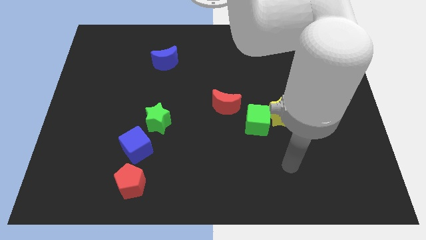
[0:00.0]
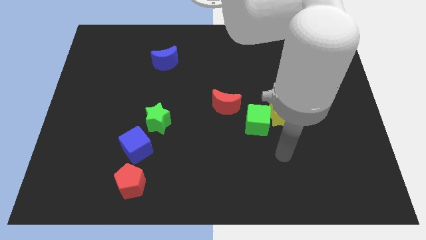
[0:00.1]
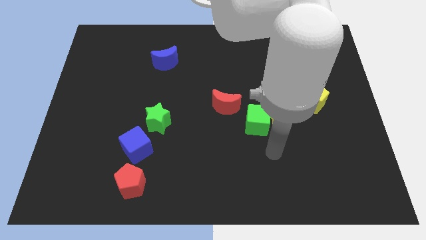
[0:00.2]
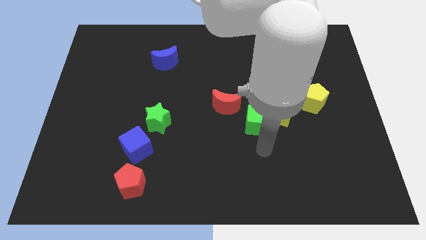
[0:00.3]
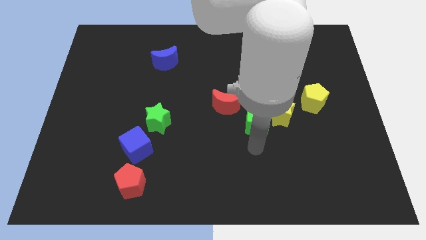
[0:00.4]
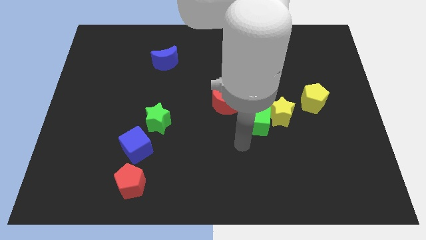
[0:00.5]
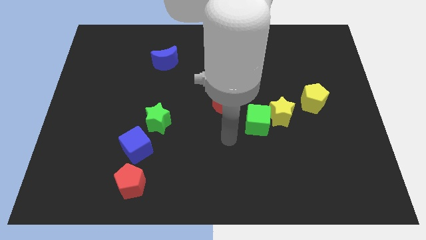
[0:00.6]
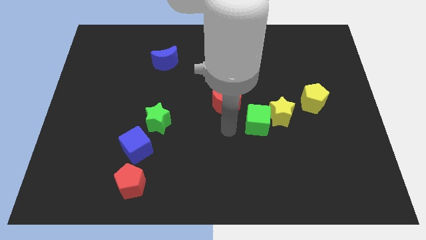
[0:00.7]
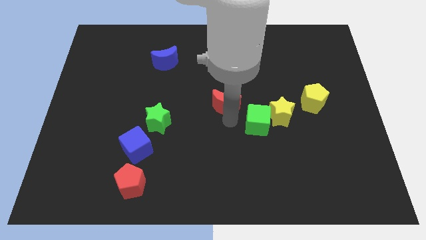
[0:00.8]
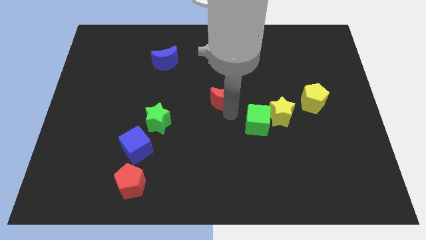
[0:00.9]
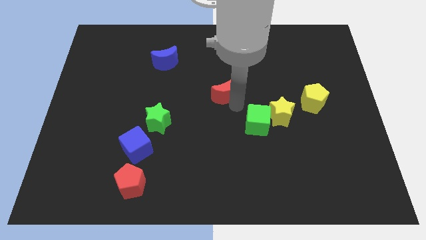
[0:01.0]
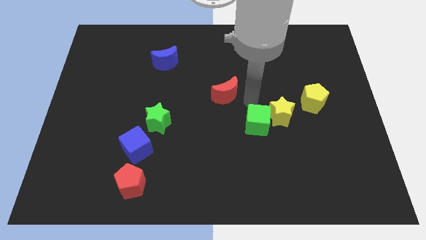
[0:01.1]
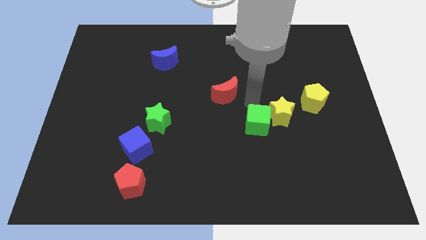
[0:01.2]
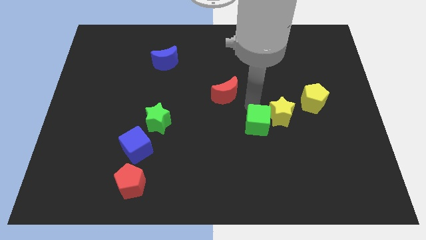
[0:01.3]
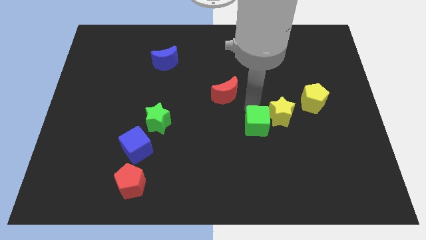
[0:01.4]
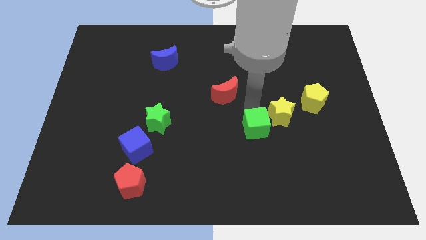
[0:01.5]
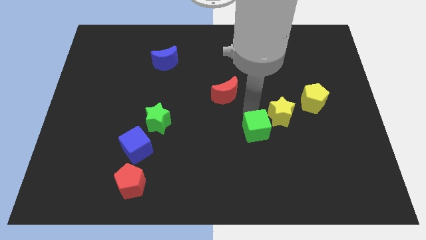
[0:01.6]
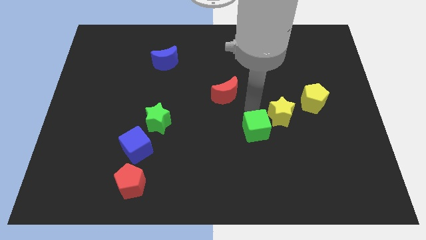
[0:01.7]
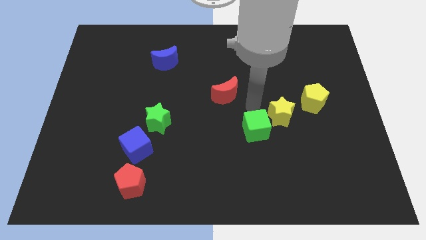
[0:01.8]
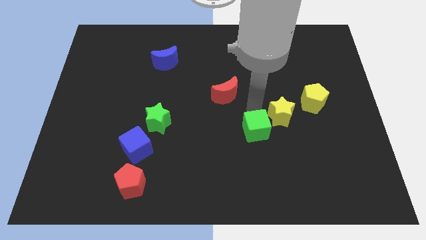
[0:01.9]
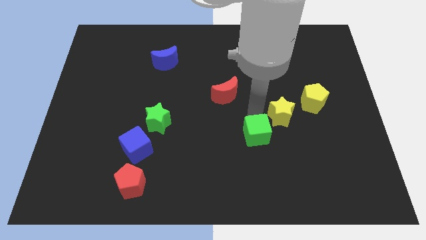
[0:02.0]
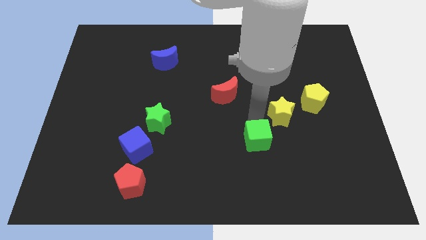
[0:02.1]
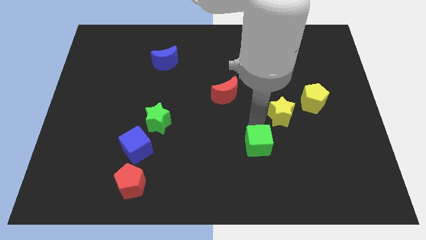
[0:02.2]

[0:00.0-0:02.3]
separate the green cube from the yellow star and red moon

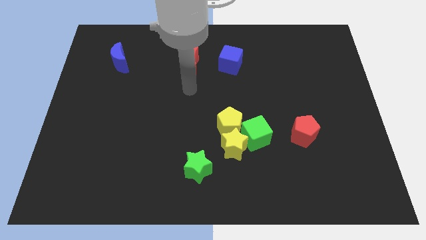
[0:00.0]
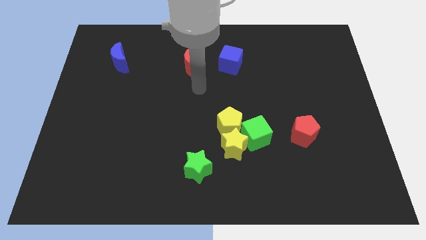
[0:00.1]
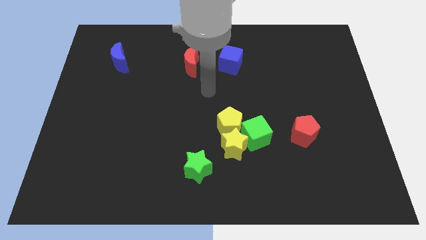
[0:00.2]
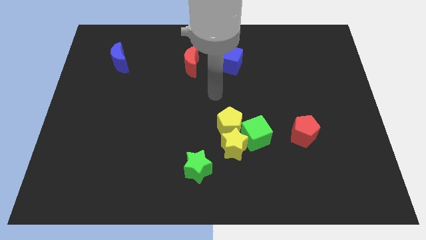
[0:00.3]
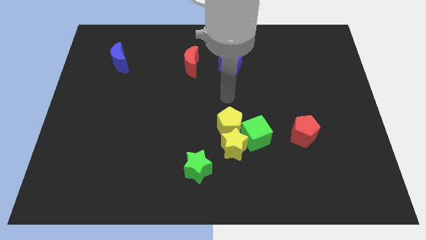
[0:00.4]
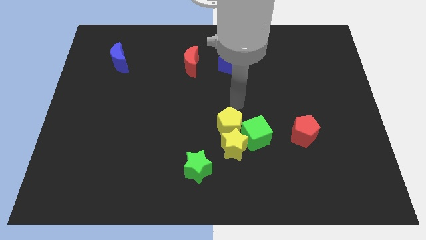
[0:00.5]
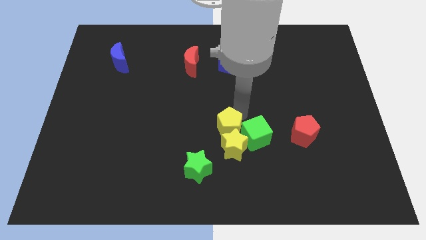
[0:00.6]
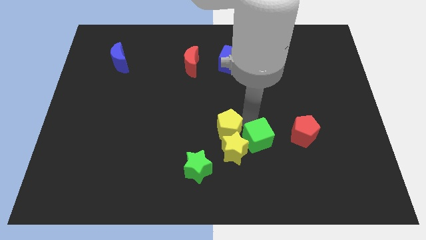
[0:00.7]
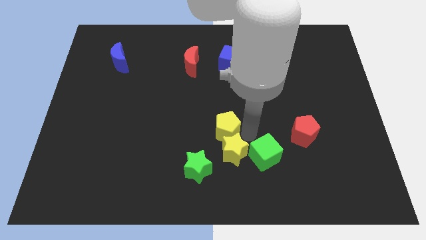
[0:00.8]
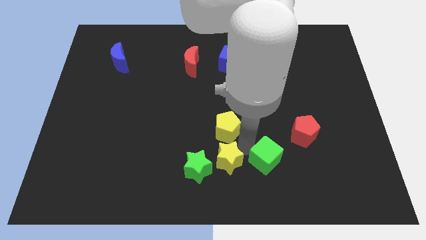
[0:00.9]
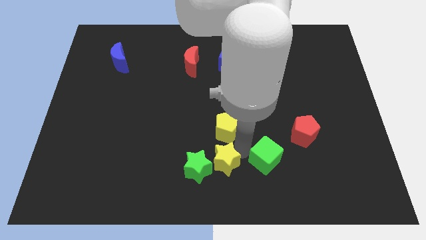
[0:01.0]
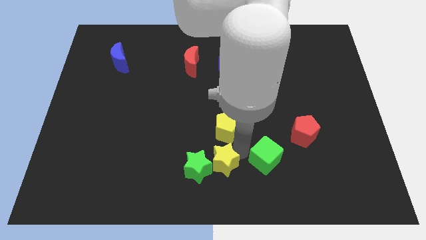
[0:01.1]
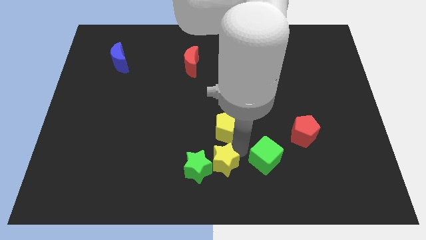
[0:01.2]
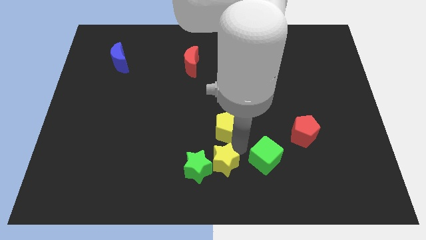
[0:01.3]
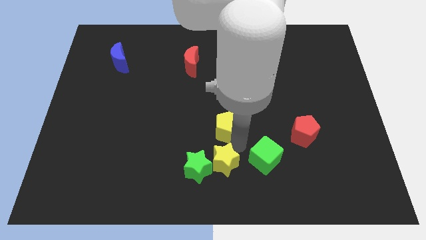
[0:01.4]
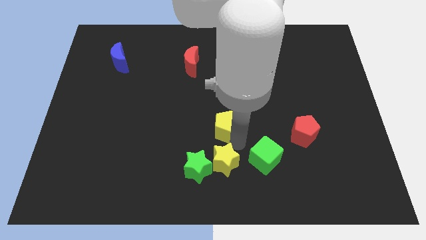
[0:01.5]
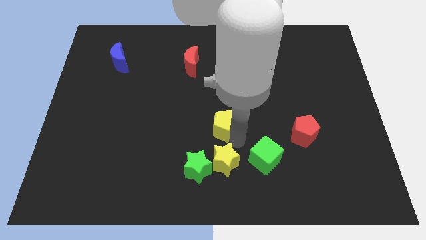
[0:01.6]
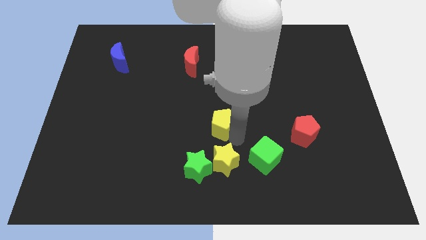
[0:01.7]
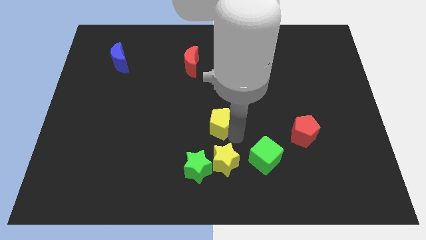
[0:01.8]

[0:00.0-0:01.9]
separate the yellow pentagon from the yellow star and green cube

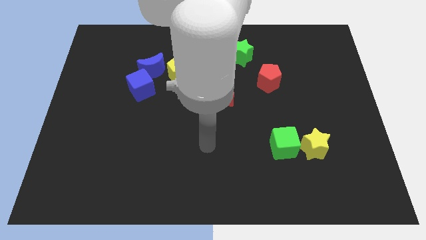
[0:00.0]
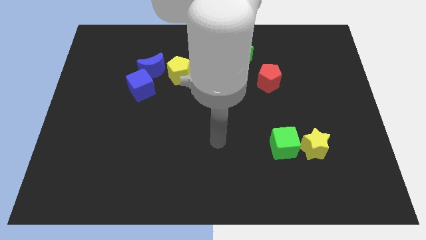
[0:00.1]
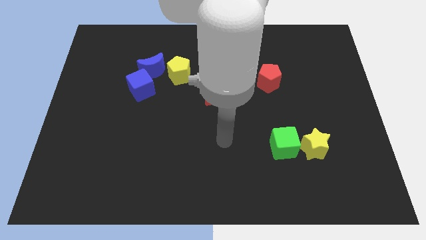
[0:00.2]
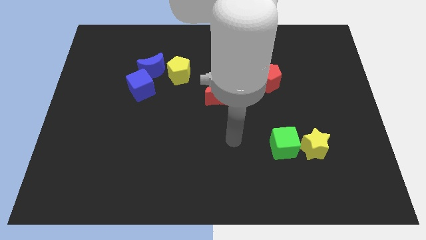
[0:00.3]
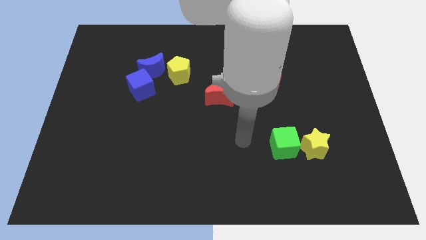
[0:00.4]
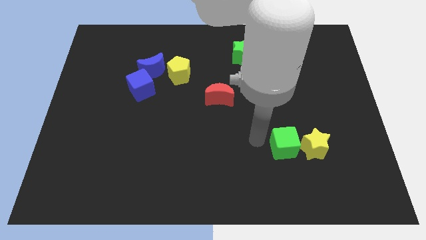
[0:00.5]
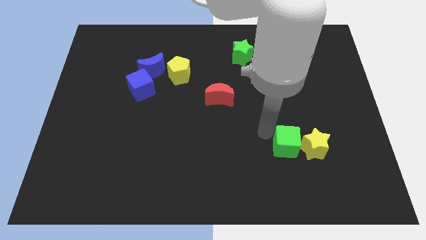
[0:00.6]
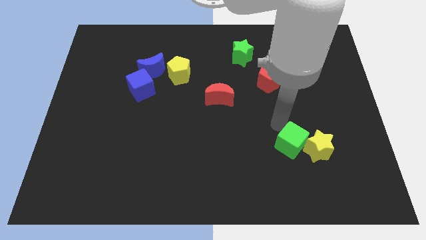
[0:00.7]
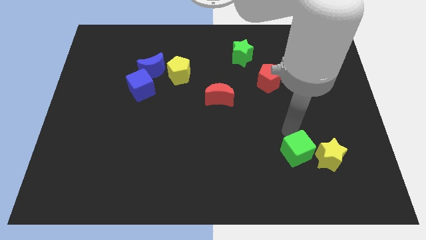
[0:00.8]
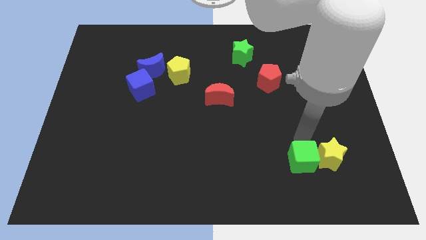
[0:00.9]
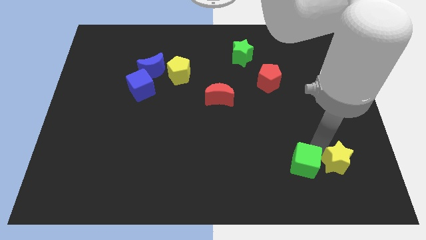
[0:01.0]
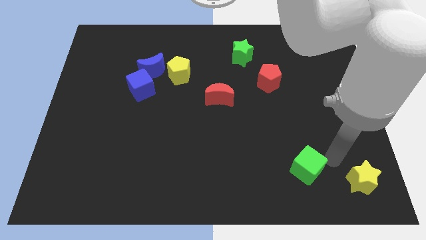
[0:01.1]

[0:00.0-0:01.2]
move the green cube away from the yellow star

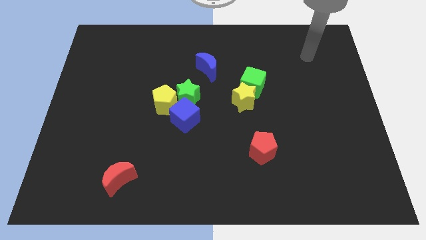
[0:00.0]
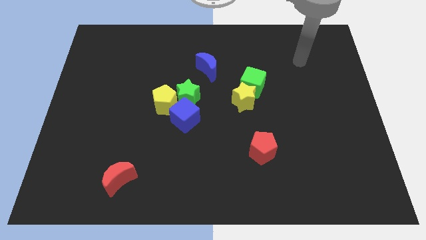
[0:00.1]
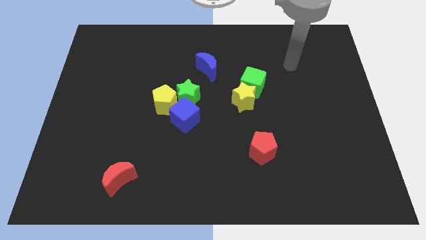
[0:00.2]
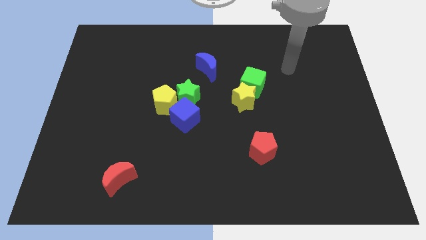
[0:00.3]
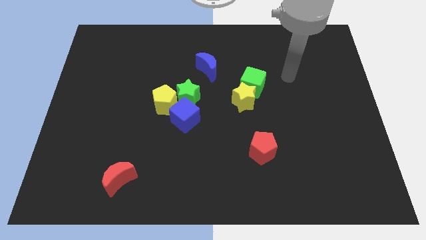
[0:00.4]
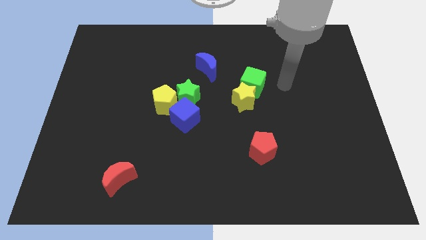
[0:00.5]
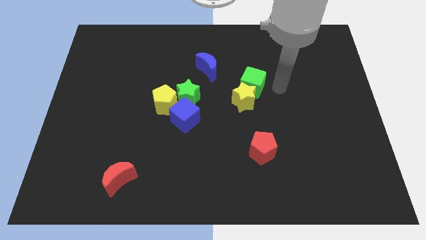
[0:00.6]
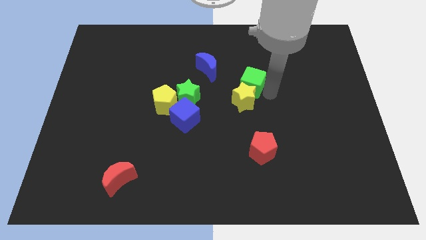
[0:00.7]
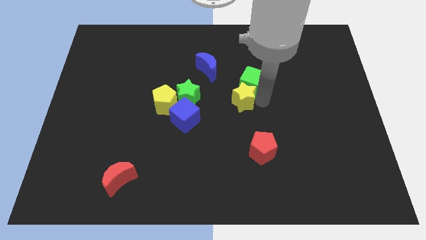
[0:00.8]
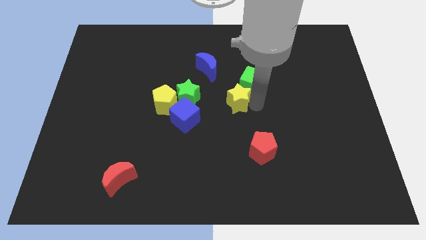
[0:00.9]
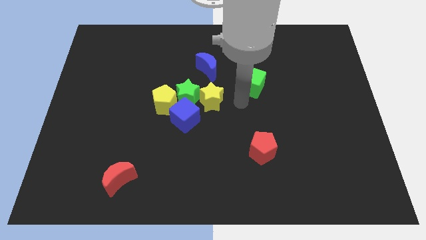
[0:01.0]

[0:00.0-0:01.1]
separate the green cube from the yellow star

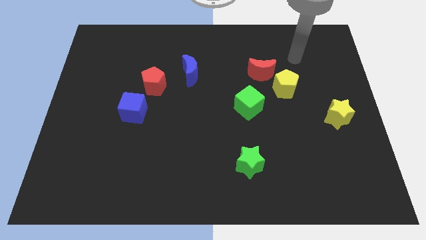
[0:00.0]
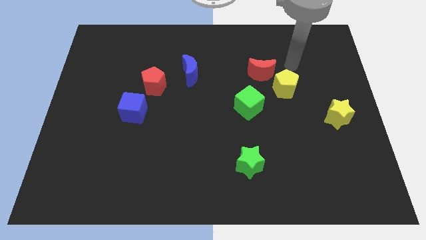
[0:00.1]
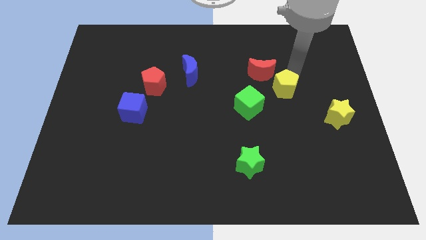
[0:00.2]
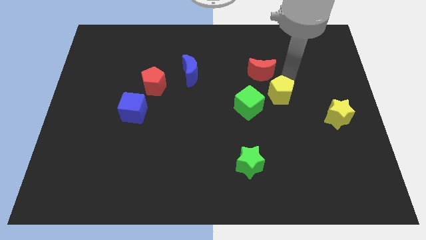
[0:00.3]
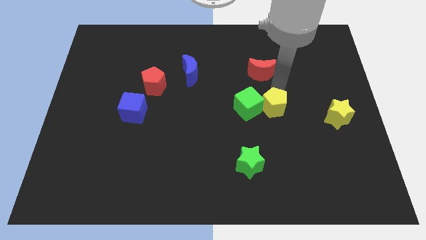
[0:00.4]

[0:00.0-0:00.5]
separate the red moon from the yellow pentagon

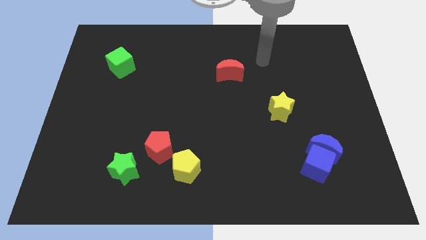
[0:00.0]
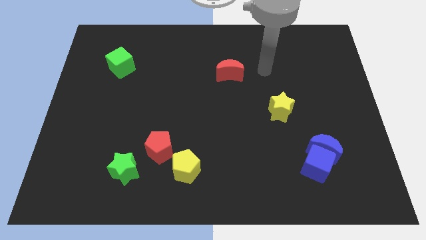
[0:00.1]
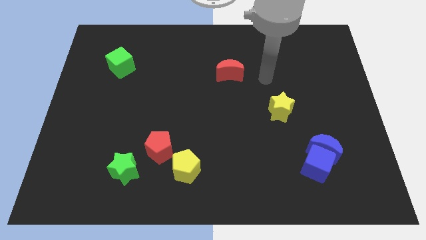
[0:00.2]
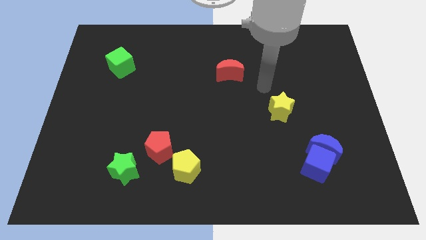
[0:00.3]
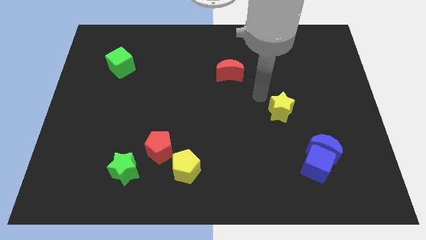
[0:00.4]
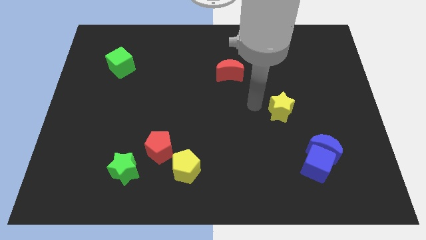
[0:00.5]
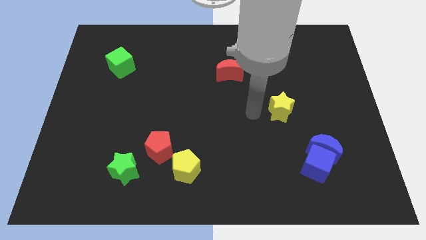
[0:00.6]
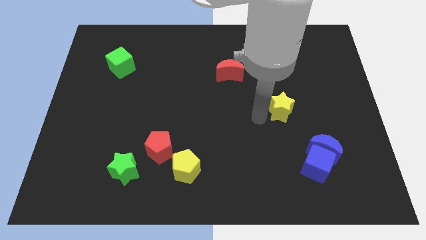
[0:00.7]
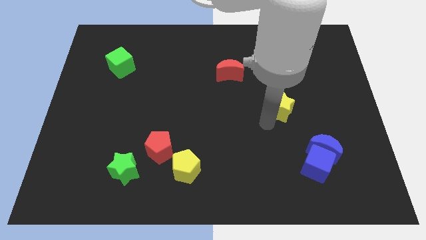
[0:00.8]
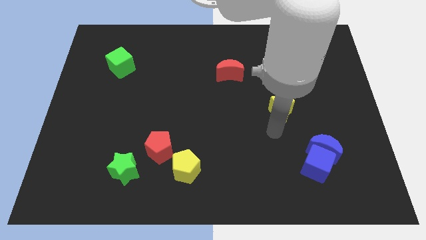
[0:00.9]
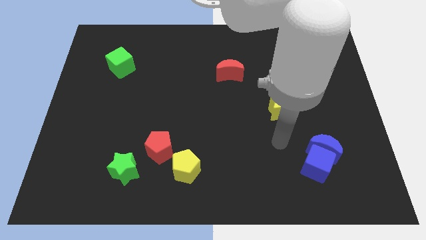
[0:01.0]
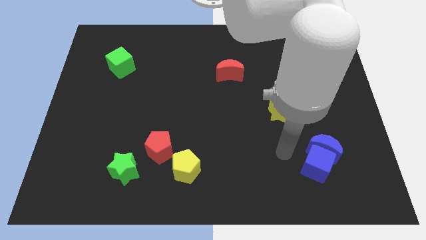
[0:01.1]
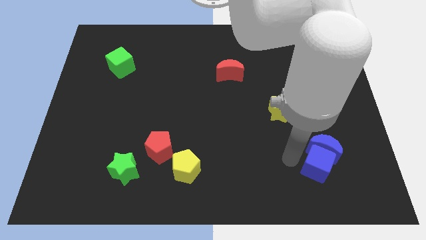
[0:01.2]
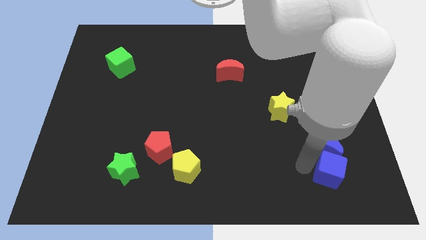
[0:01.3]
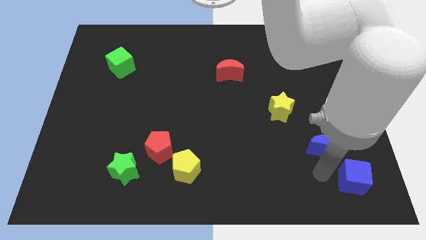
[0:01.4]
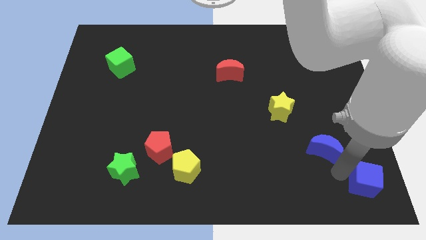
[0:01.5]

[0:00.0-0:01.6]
move the blue moon away from the blue cube

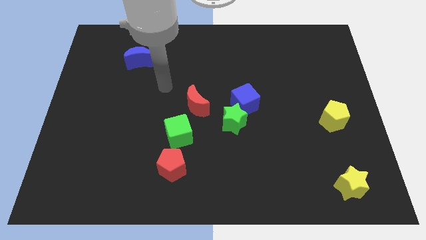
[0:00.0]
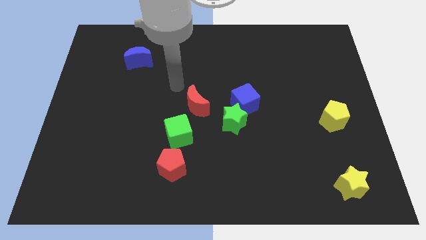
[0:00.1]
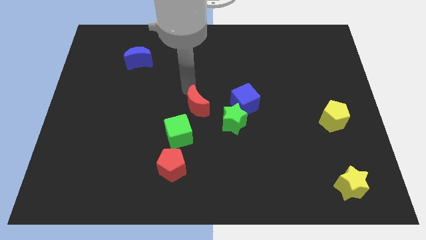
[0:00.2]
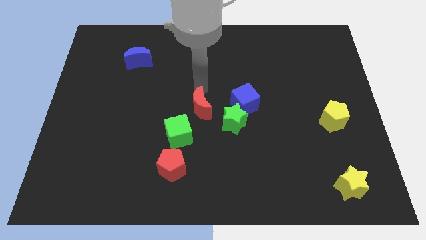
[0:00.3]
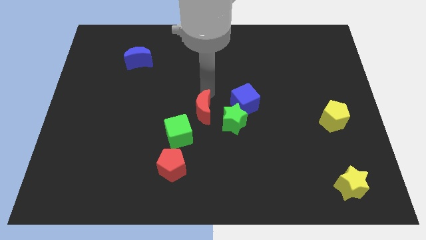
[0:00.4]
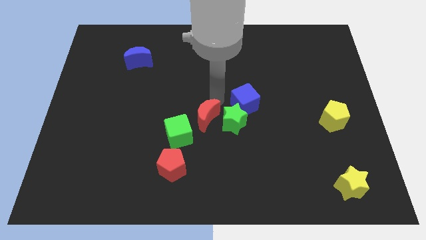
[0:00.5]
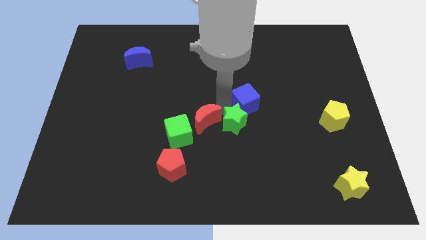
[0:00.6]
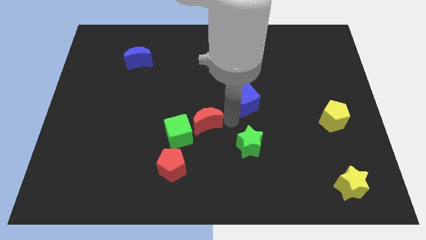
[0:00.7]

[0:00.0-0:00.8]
move the blue cube away from the green star
